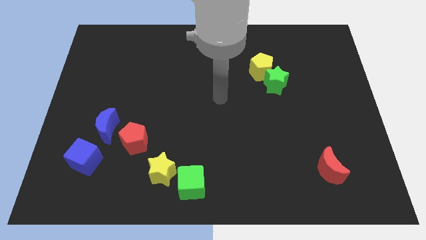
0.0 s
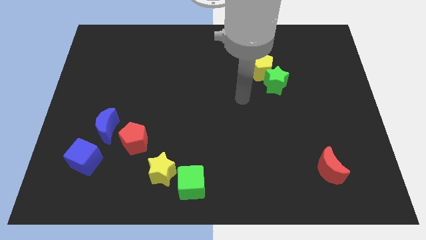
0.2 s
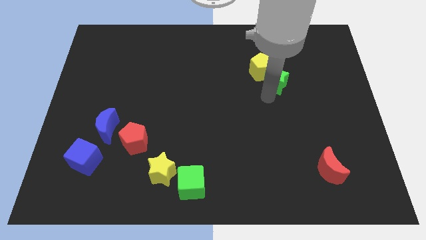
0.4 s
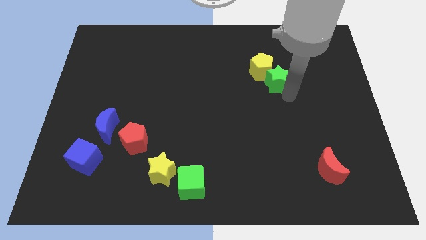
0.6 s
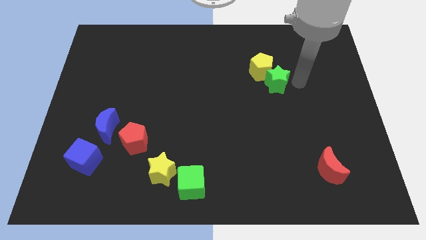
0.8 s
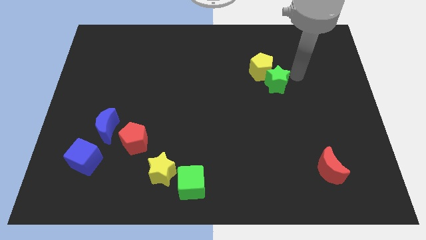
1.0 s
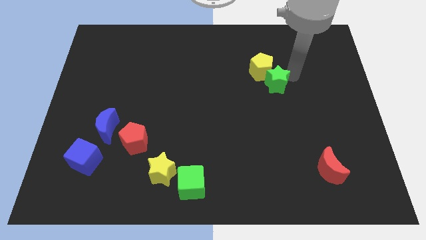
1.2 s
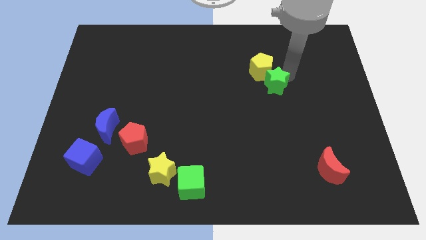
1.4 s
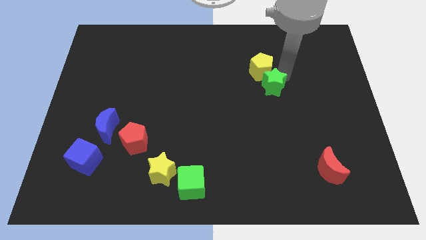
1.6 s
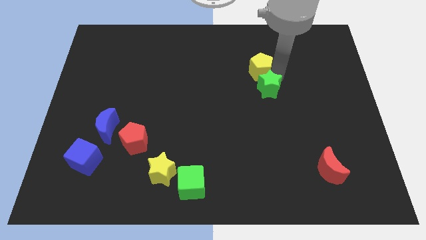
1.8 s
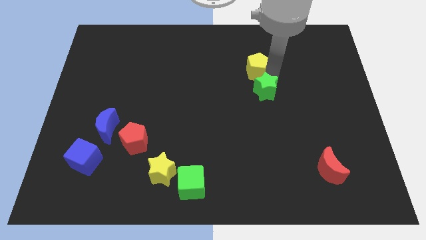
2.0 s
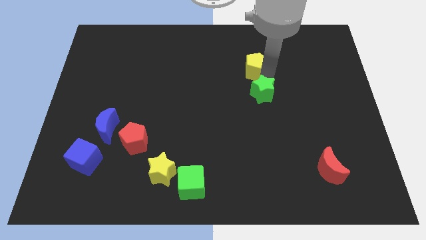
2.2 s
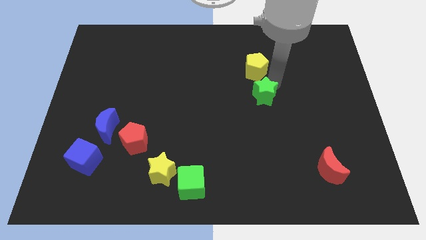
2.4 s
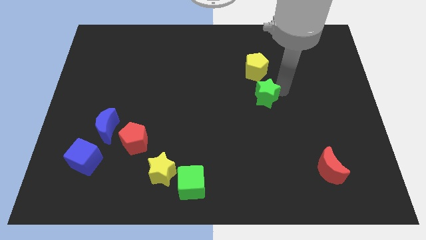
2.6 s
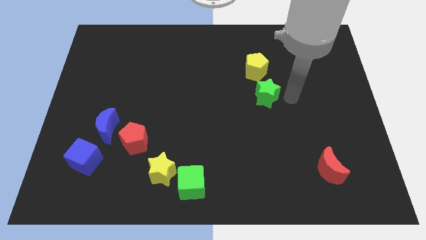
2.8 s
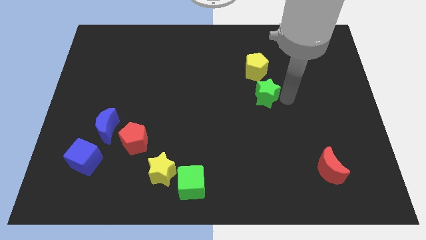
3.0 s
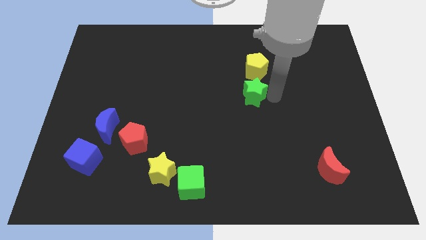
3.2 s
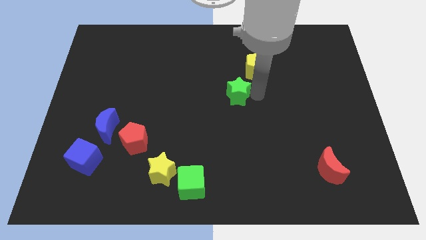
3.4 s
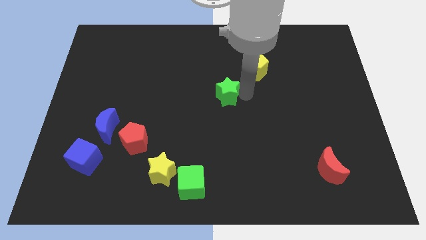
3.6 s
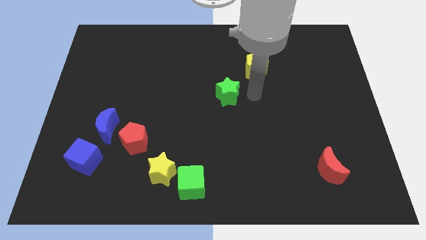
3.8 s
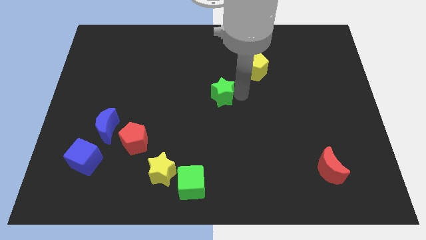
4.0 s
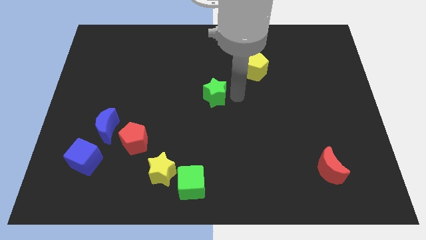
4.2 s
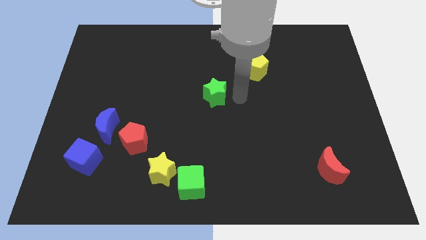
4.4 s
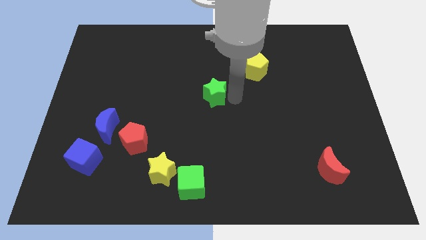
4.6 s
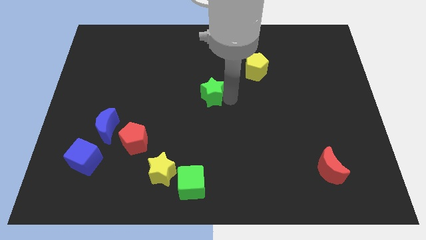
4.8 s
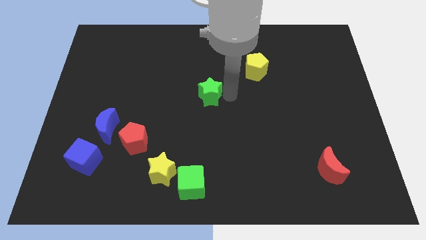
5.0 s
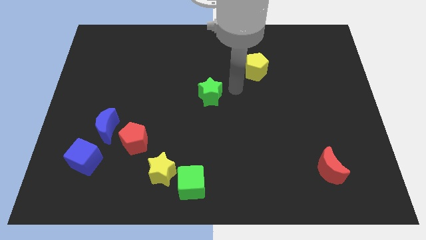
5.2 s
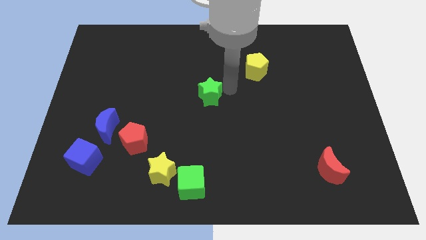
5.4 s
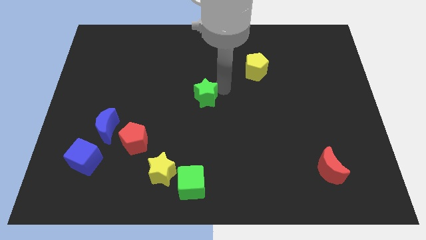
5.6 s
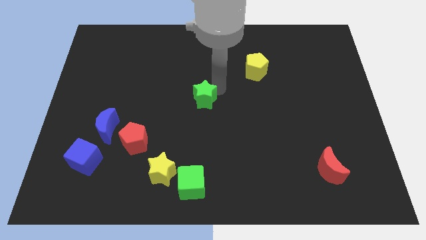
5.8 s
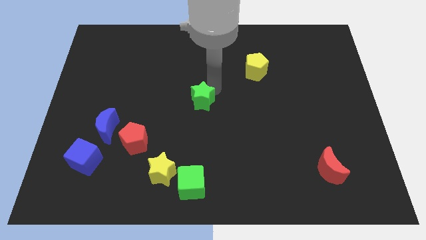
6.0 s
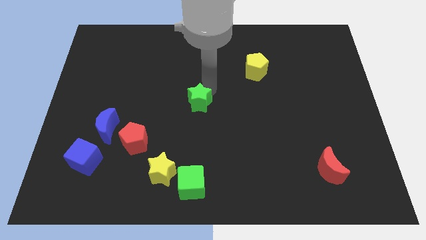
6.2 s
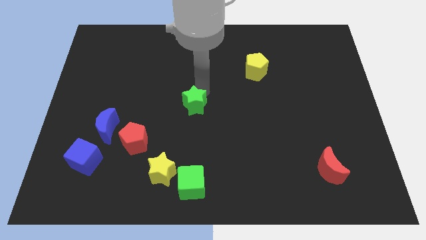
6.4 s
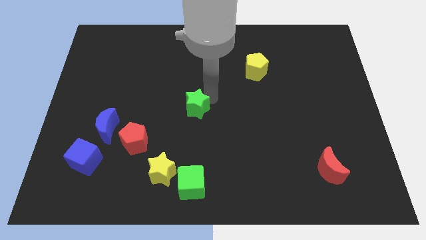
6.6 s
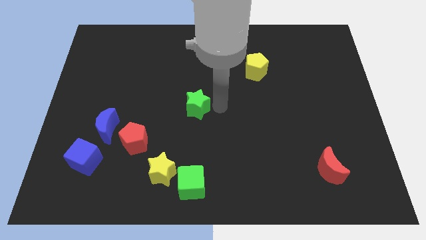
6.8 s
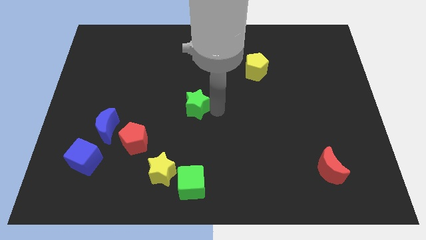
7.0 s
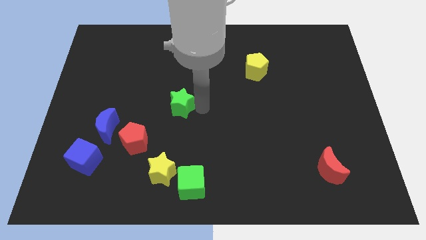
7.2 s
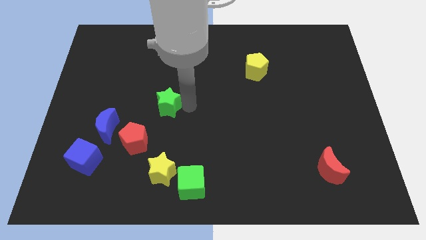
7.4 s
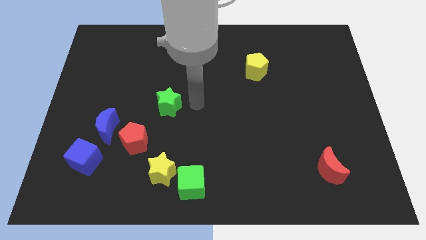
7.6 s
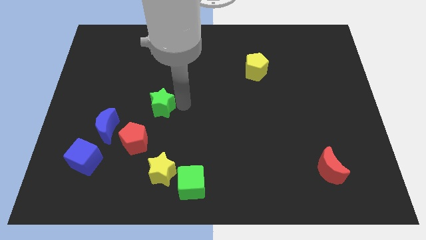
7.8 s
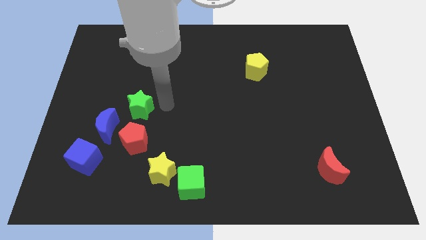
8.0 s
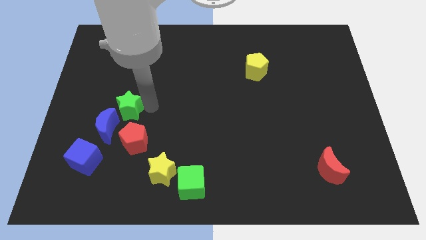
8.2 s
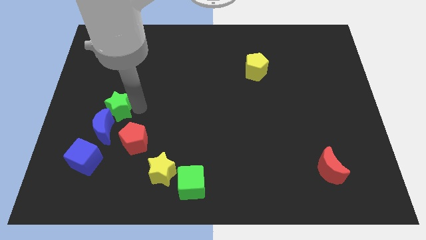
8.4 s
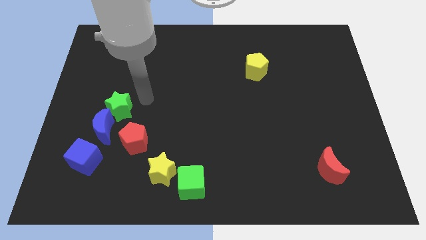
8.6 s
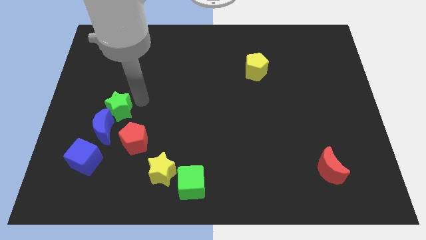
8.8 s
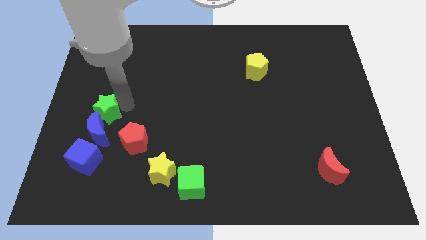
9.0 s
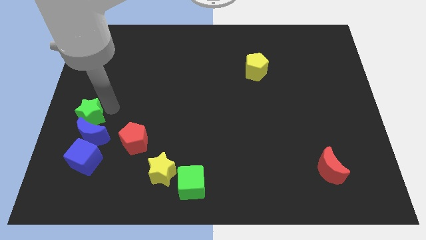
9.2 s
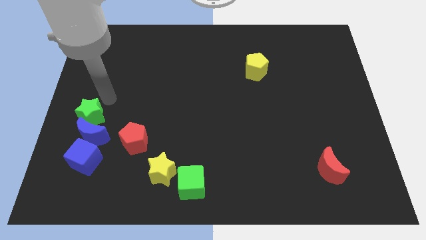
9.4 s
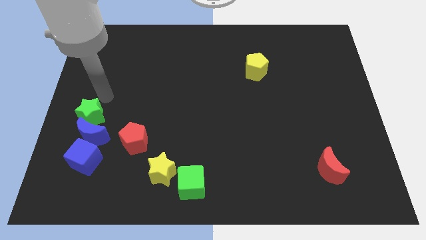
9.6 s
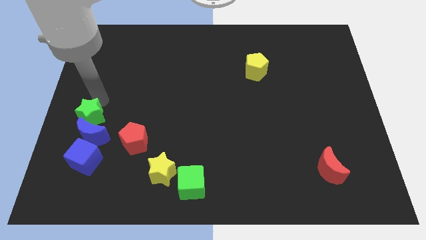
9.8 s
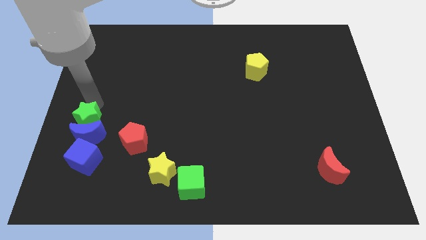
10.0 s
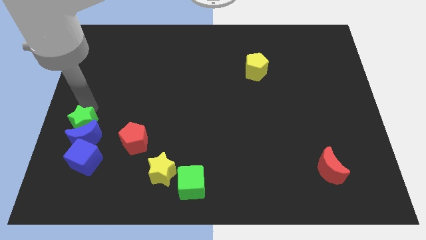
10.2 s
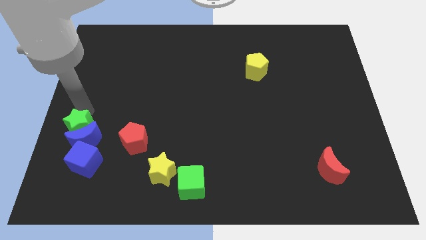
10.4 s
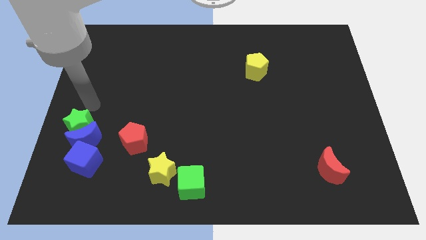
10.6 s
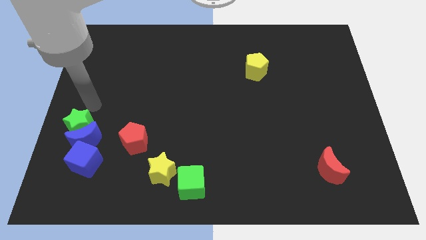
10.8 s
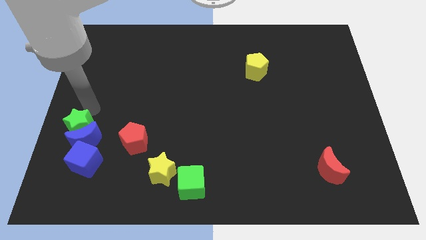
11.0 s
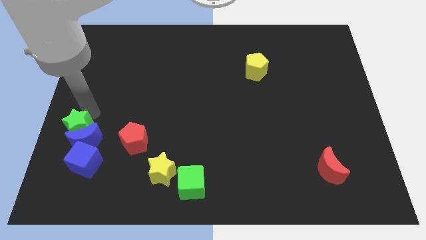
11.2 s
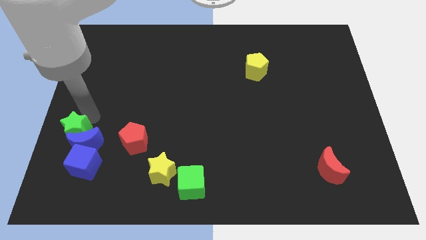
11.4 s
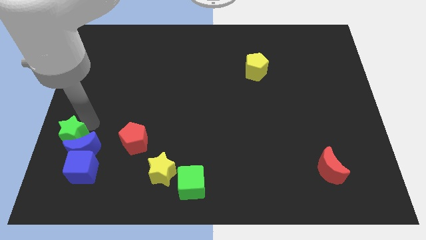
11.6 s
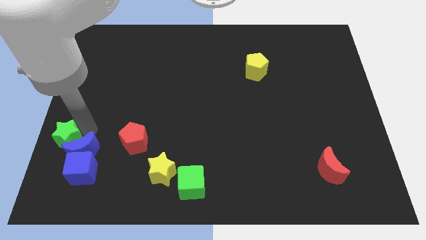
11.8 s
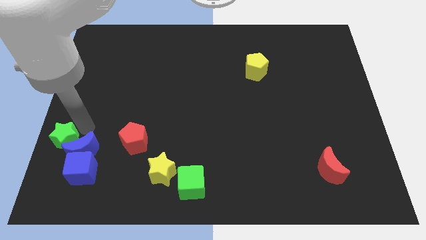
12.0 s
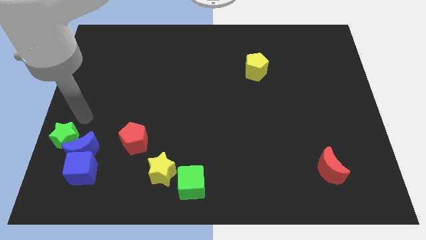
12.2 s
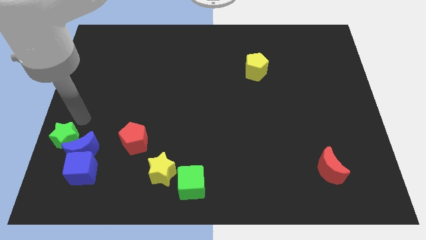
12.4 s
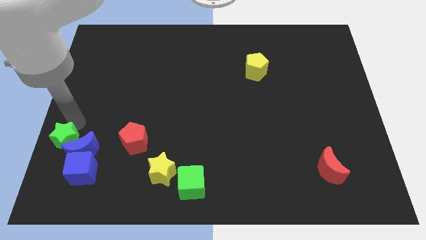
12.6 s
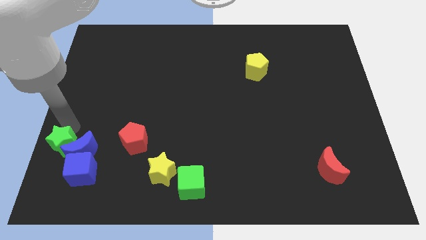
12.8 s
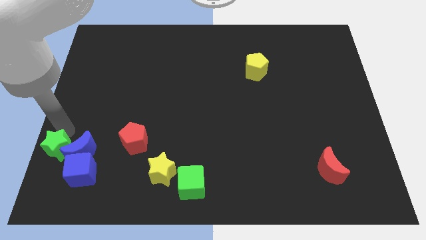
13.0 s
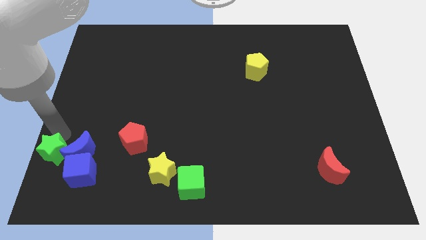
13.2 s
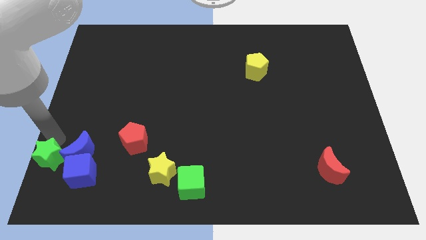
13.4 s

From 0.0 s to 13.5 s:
put the green star to the lower left corner
